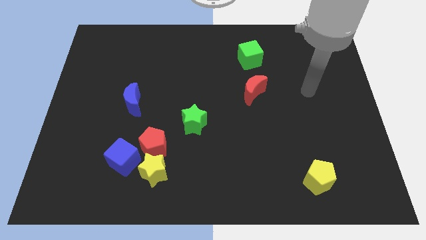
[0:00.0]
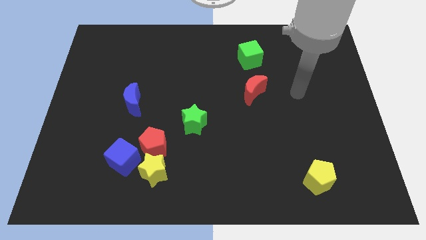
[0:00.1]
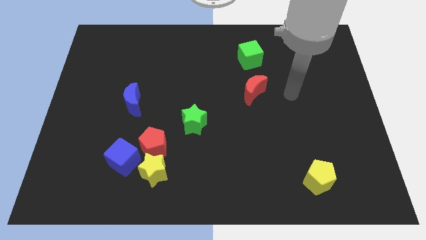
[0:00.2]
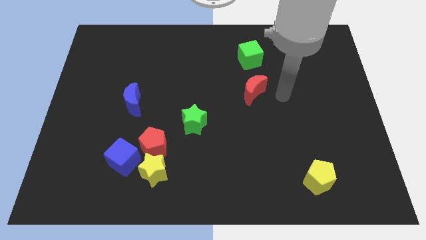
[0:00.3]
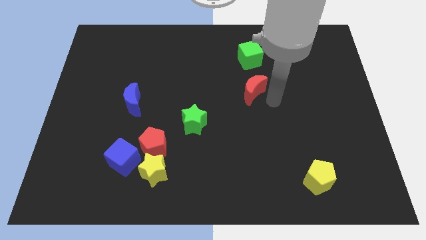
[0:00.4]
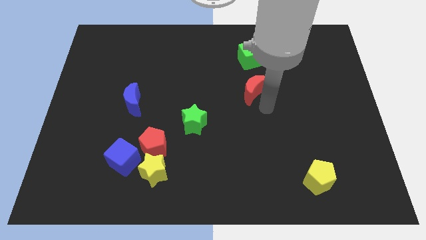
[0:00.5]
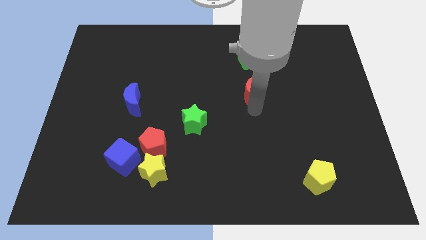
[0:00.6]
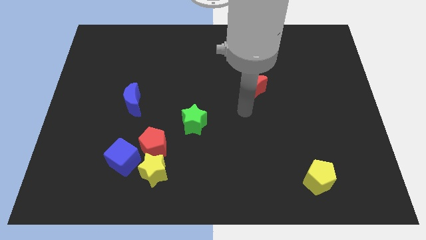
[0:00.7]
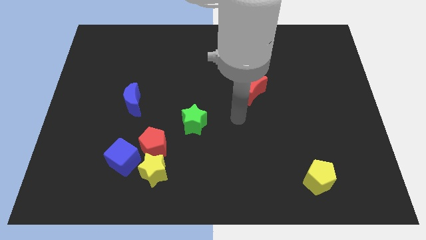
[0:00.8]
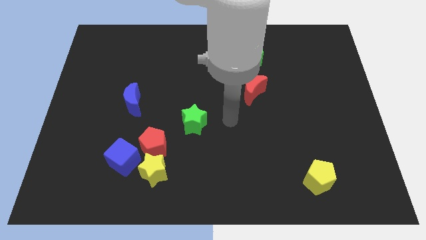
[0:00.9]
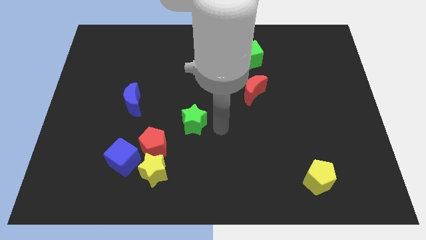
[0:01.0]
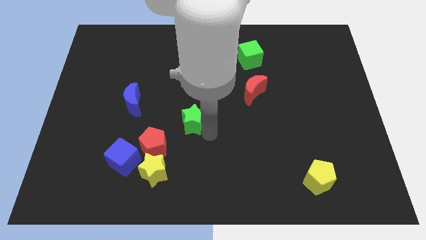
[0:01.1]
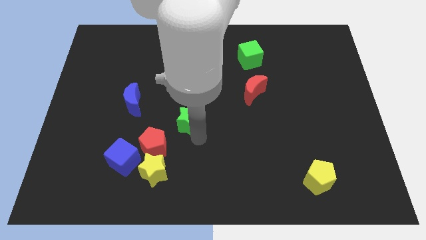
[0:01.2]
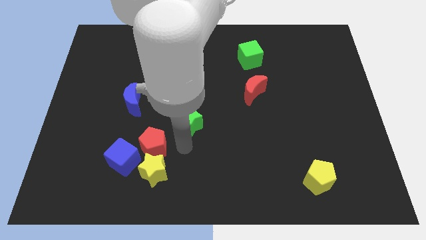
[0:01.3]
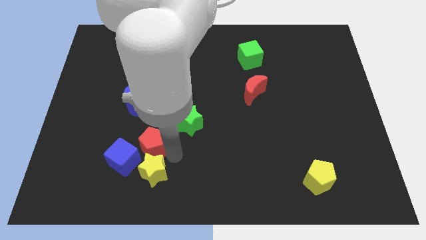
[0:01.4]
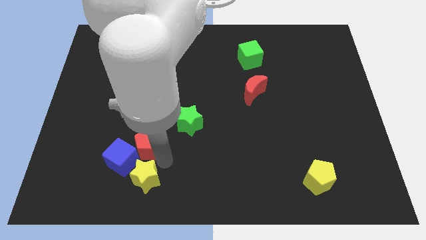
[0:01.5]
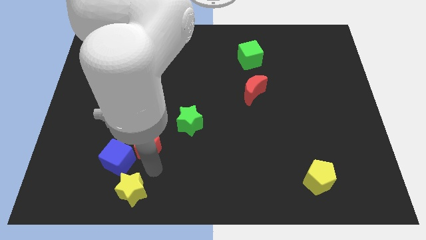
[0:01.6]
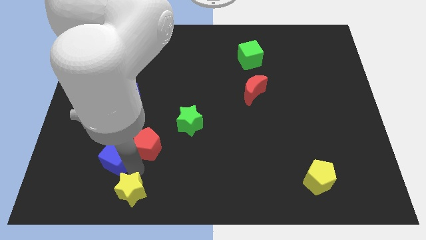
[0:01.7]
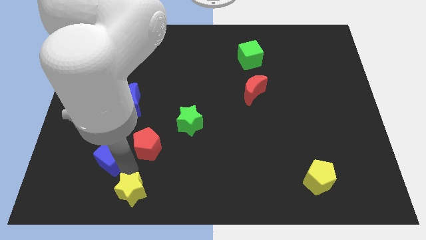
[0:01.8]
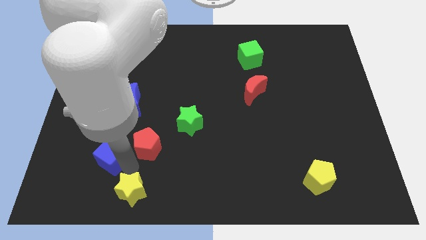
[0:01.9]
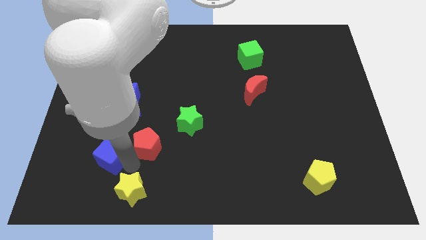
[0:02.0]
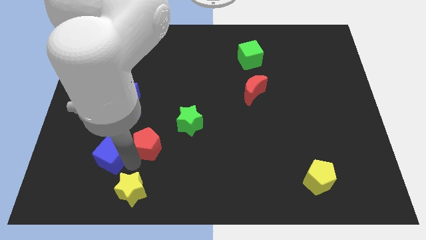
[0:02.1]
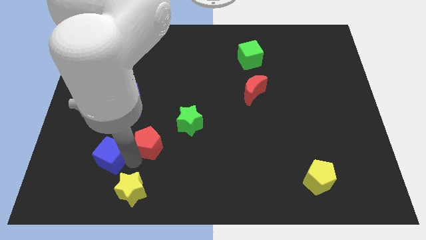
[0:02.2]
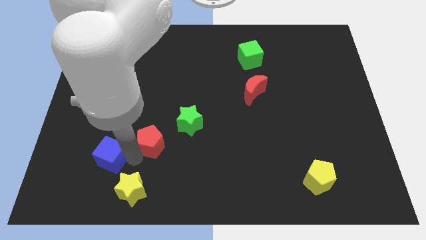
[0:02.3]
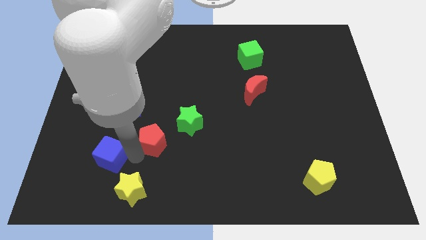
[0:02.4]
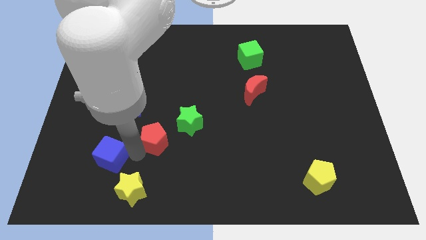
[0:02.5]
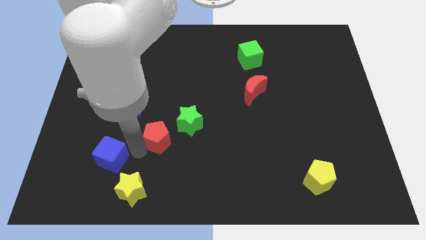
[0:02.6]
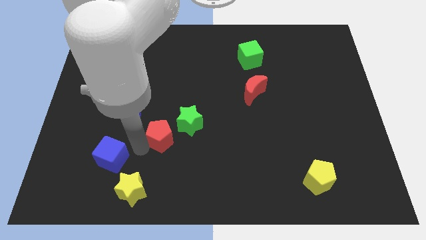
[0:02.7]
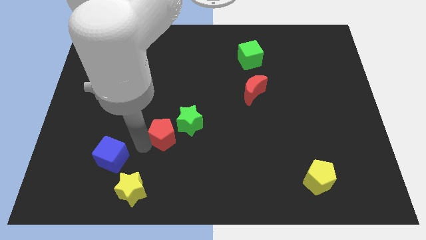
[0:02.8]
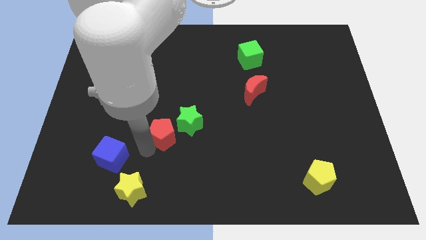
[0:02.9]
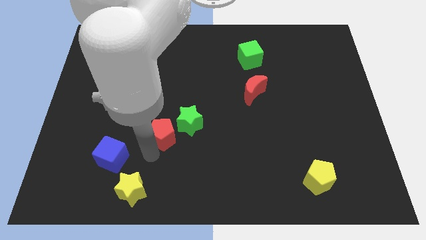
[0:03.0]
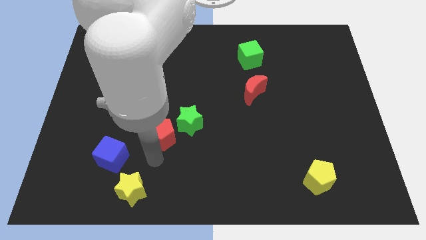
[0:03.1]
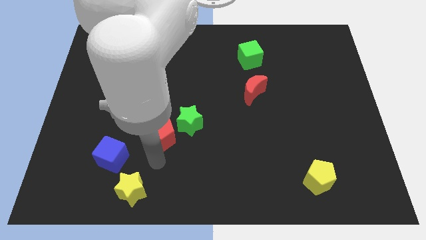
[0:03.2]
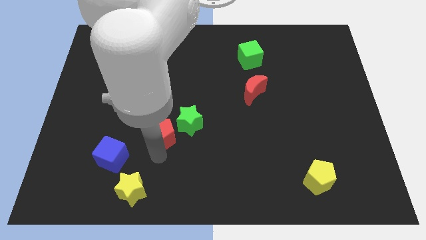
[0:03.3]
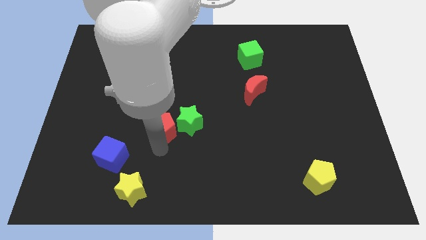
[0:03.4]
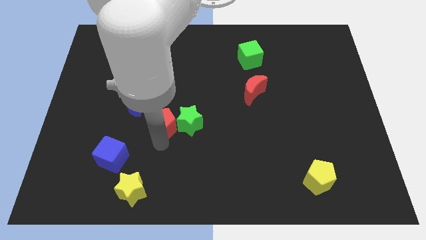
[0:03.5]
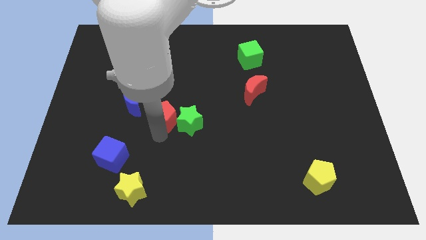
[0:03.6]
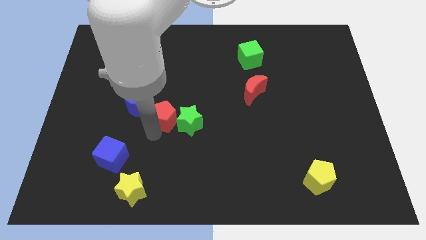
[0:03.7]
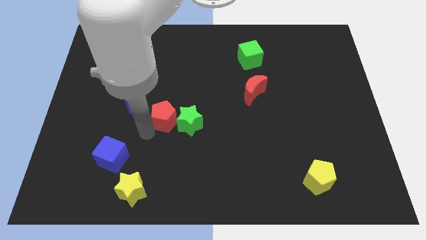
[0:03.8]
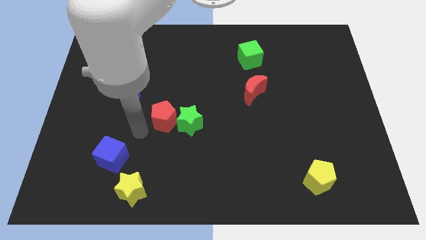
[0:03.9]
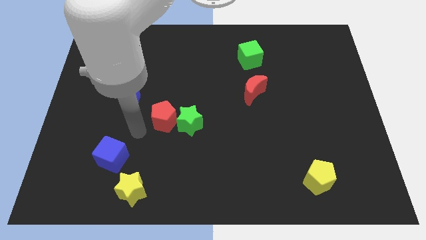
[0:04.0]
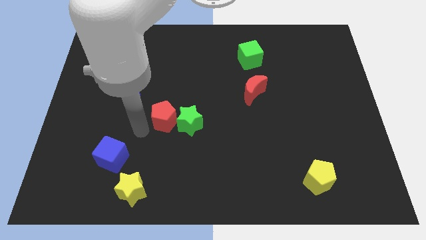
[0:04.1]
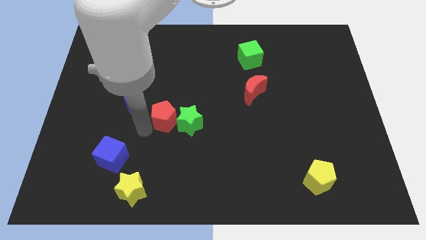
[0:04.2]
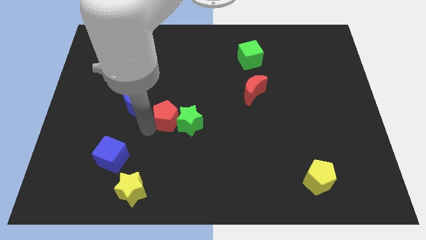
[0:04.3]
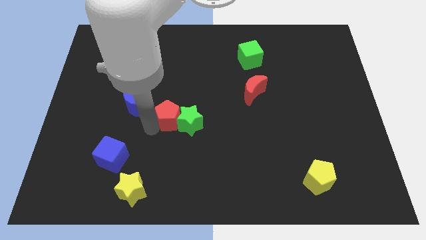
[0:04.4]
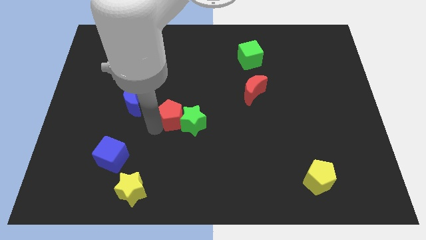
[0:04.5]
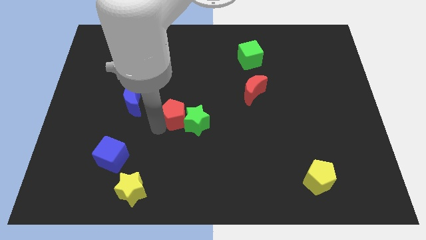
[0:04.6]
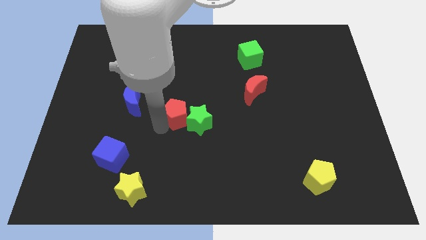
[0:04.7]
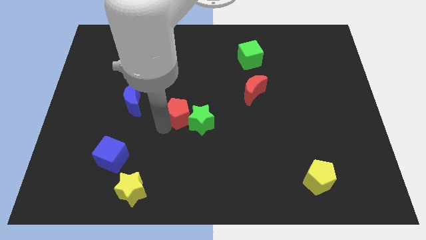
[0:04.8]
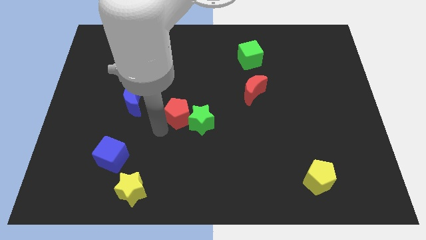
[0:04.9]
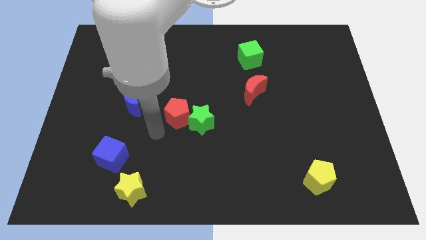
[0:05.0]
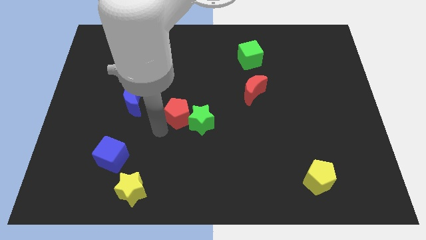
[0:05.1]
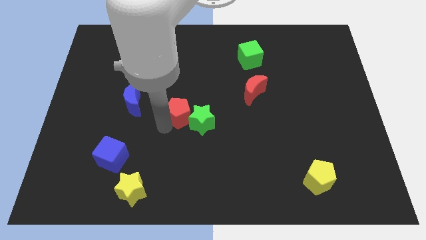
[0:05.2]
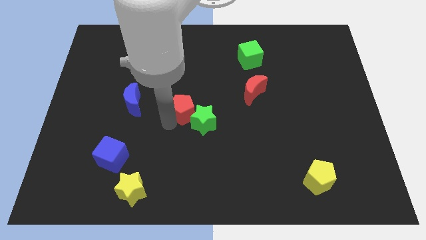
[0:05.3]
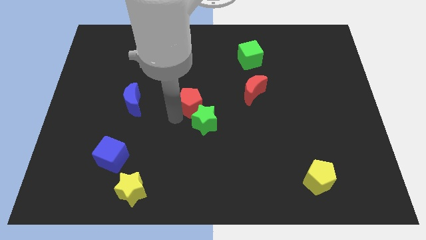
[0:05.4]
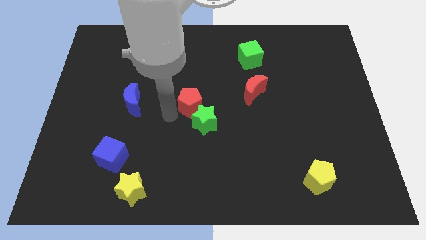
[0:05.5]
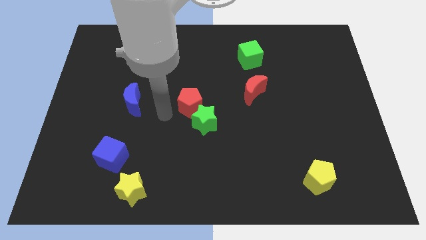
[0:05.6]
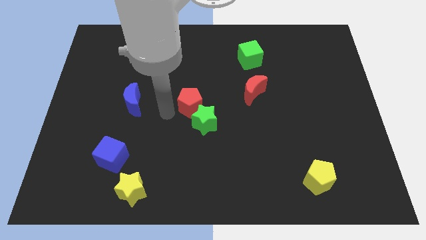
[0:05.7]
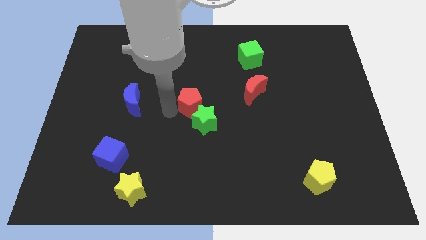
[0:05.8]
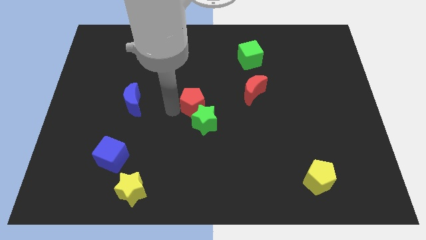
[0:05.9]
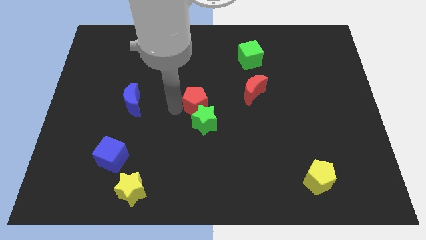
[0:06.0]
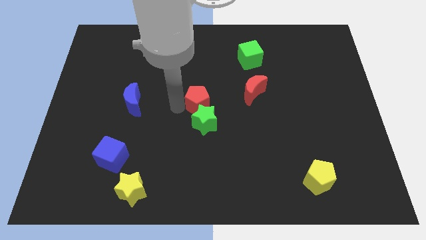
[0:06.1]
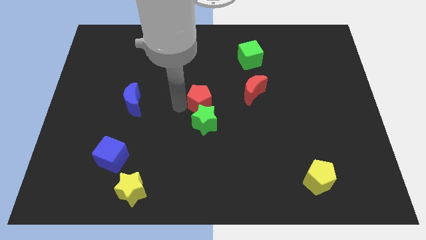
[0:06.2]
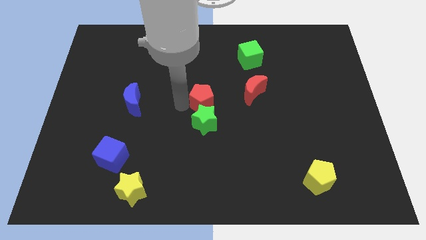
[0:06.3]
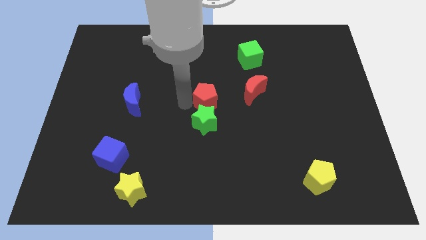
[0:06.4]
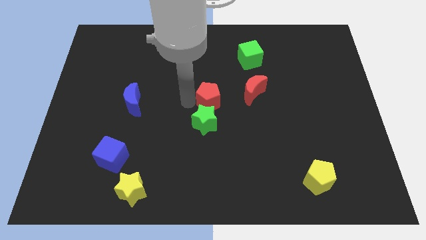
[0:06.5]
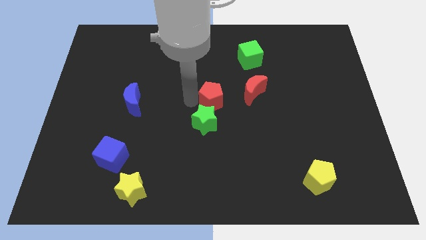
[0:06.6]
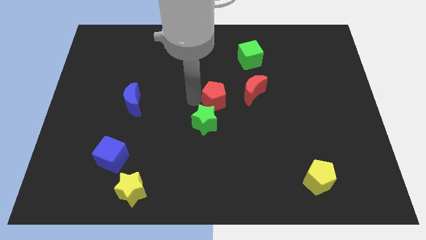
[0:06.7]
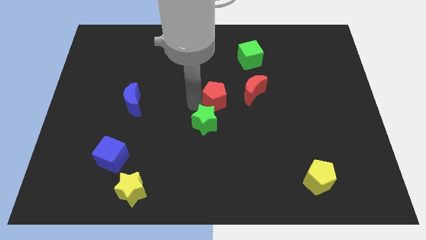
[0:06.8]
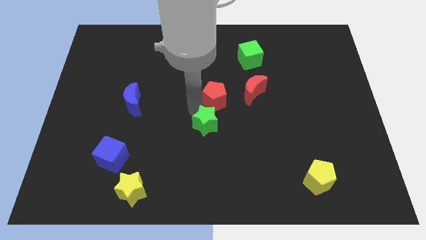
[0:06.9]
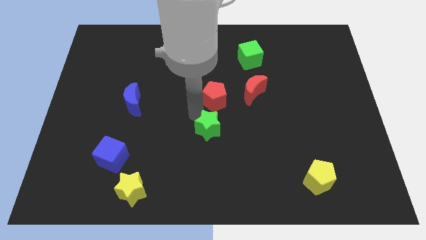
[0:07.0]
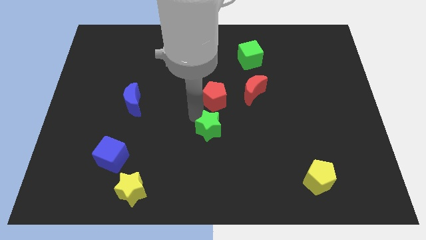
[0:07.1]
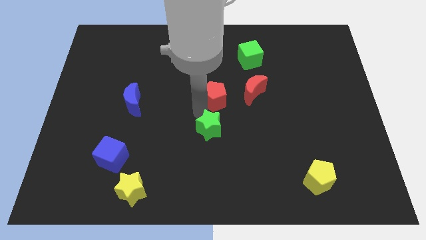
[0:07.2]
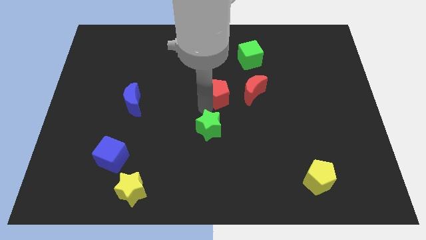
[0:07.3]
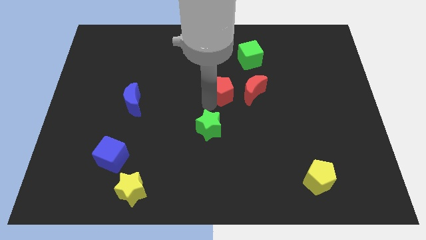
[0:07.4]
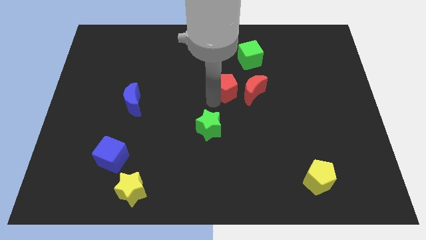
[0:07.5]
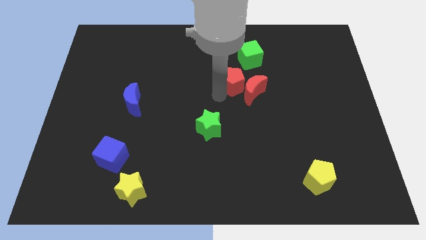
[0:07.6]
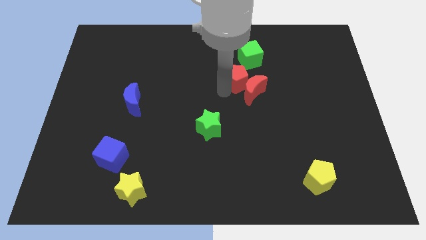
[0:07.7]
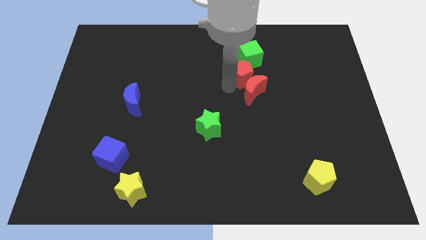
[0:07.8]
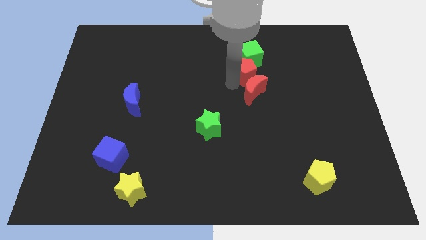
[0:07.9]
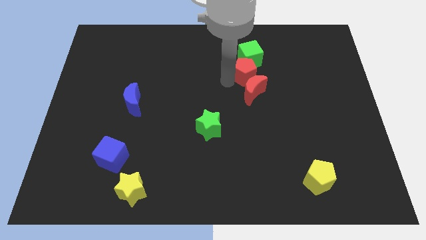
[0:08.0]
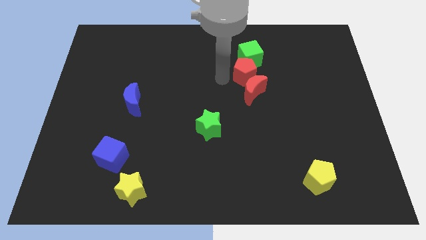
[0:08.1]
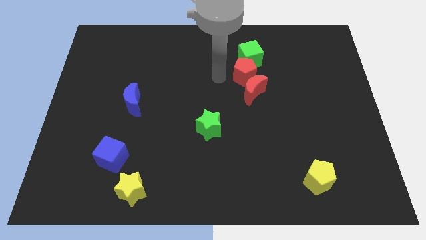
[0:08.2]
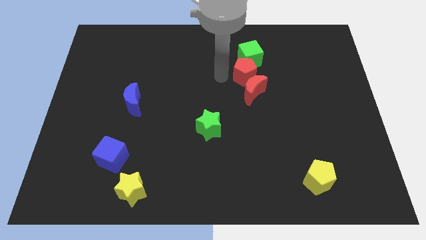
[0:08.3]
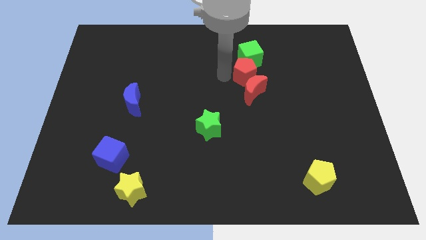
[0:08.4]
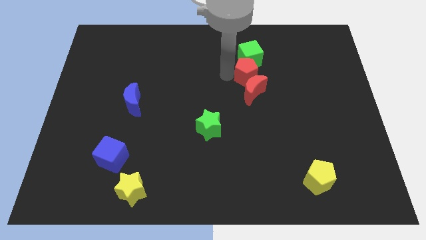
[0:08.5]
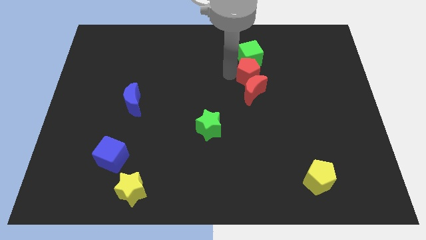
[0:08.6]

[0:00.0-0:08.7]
move the red pentagon to the bottom right side of the green cube
